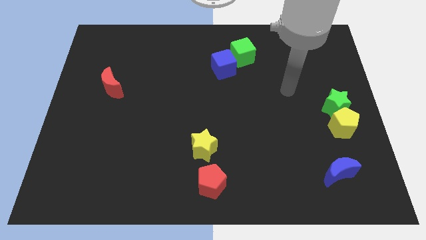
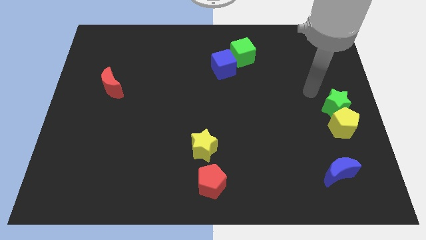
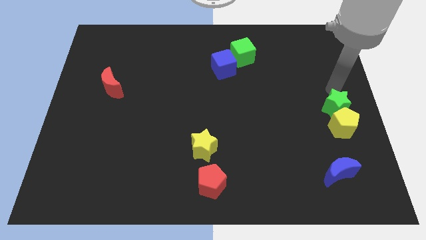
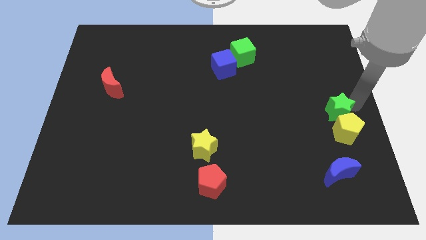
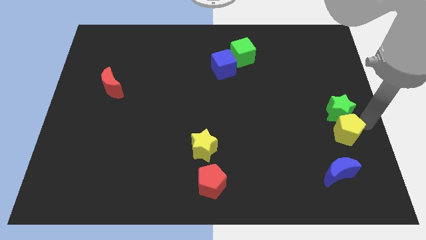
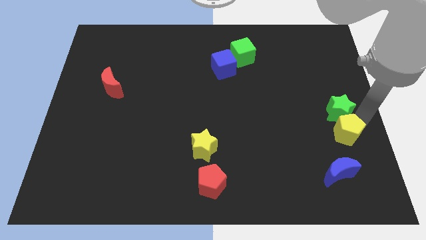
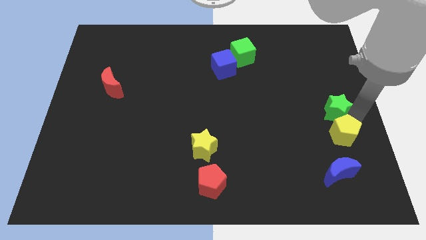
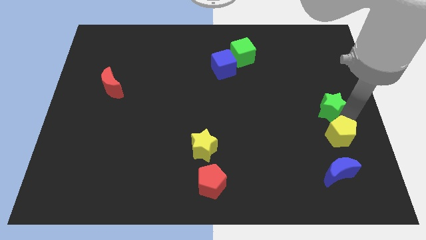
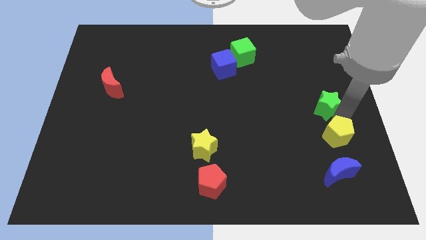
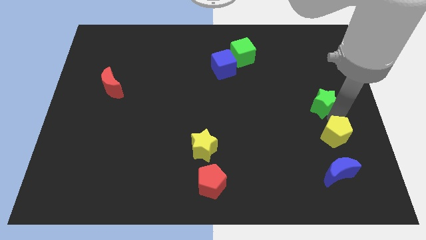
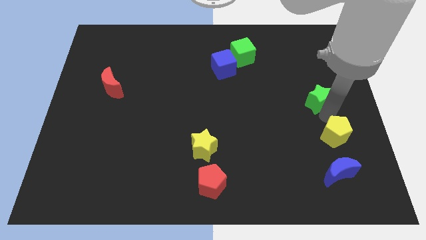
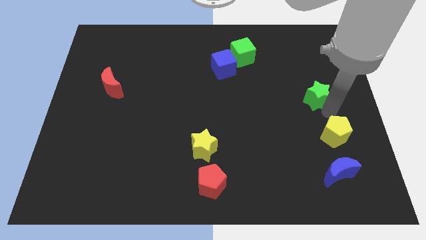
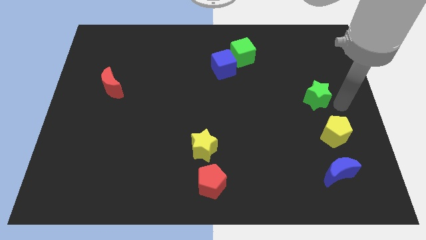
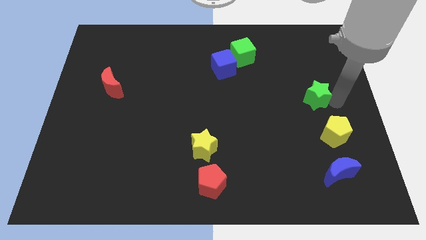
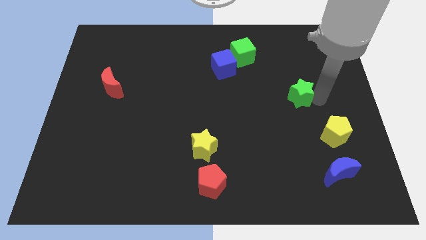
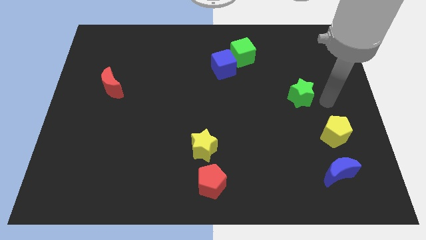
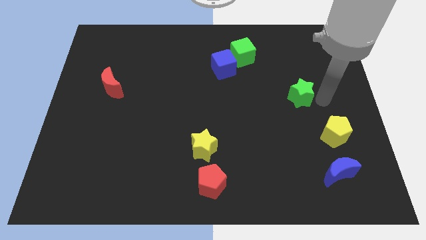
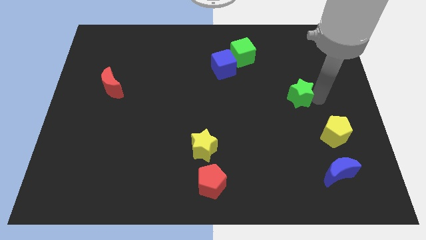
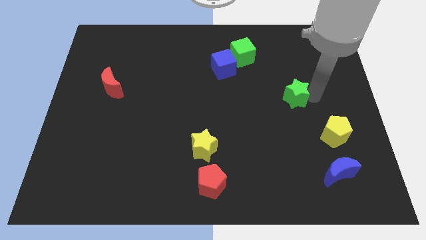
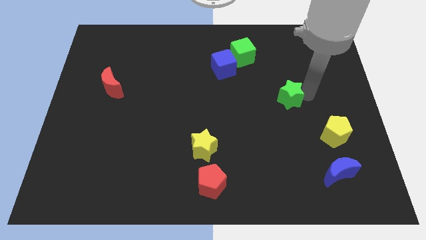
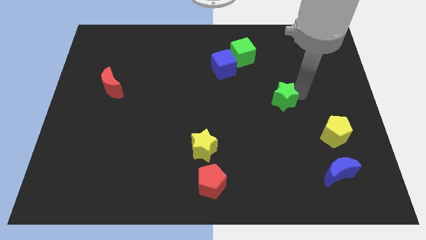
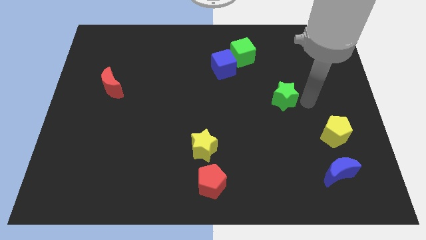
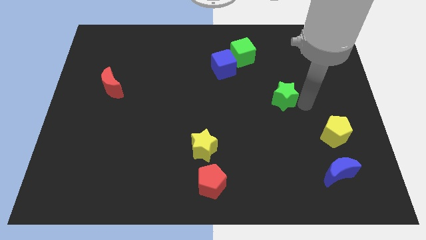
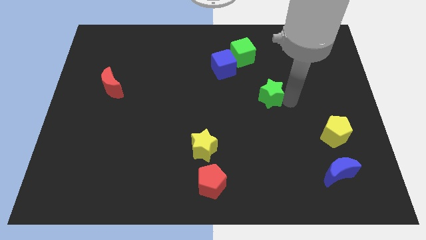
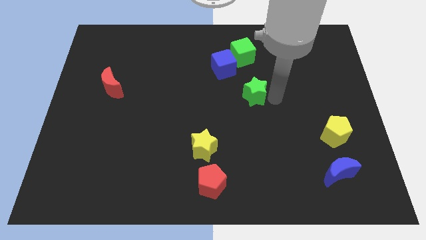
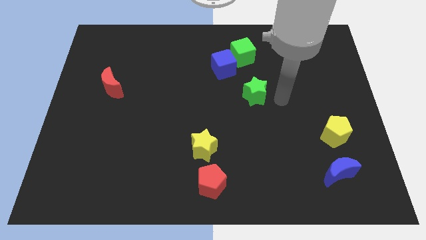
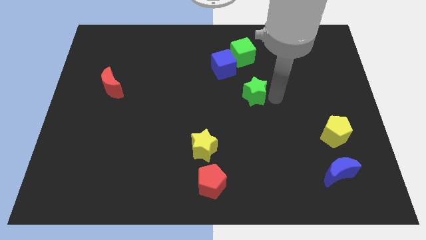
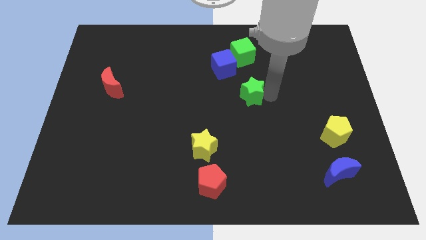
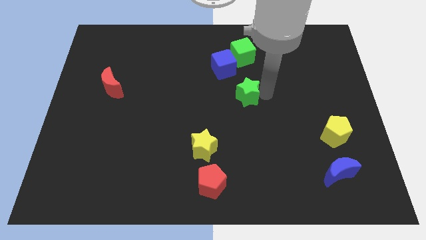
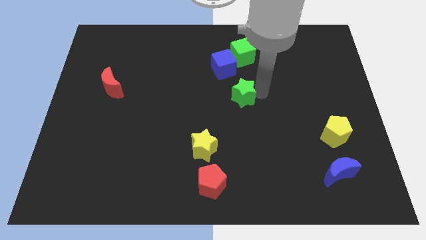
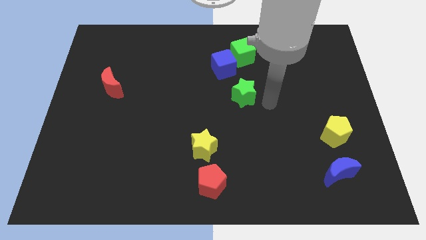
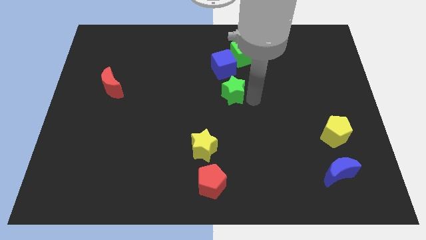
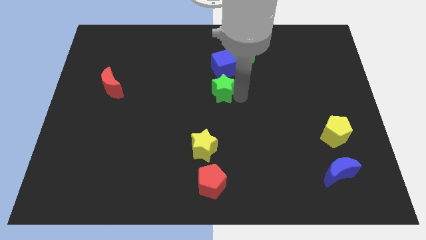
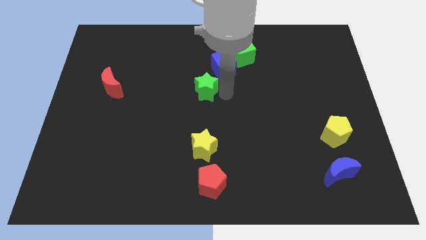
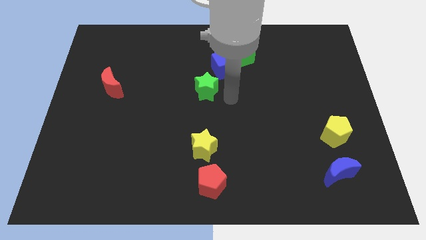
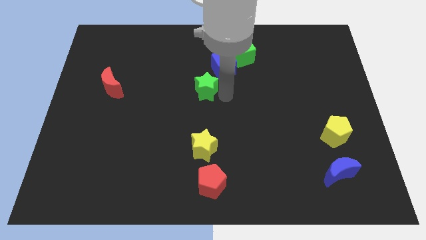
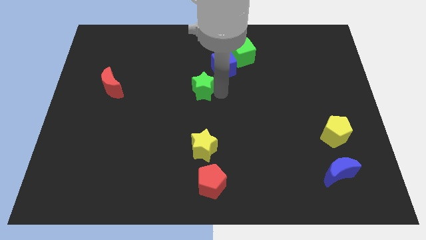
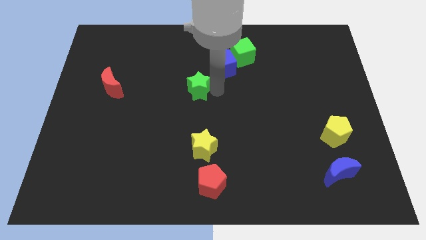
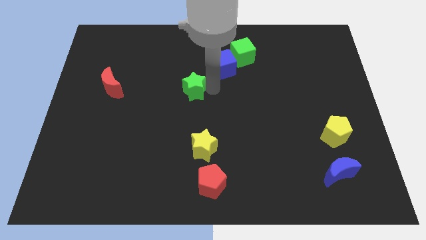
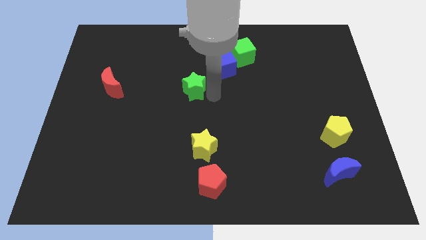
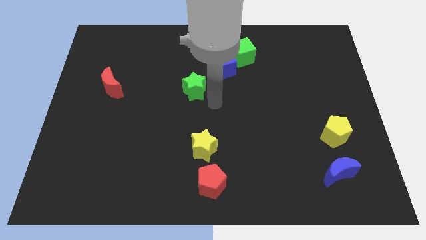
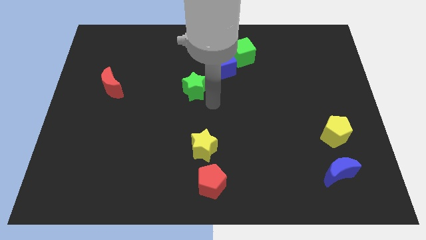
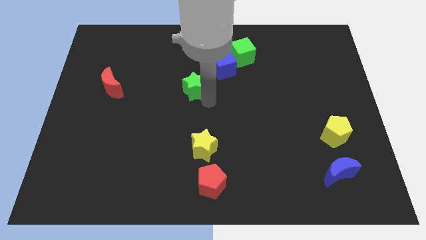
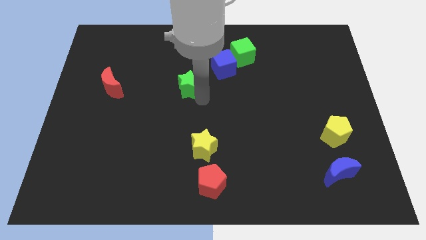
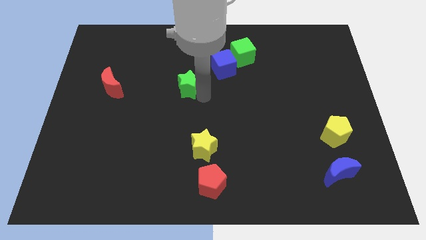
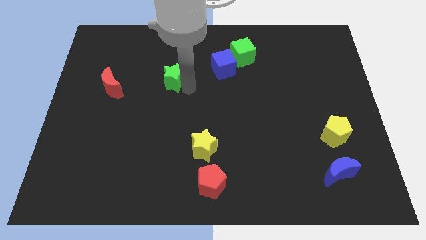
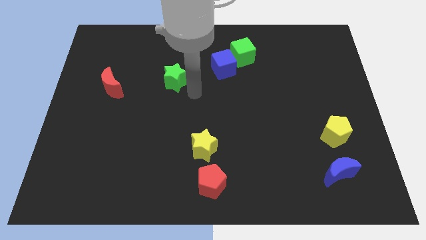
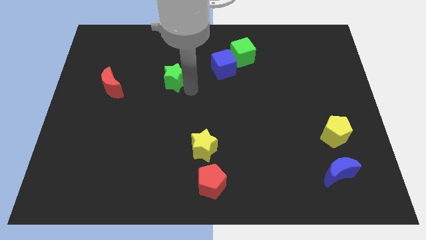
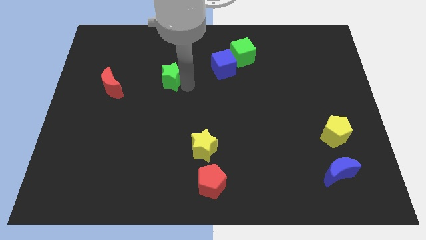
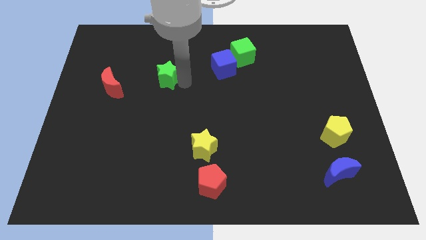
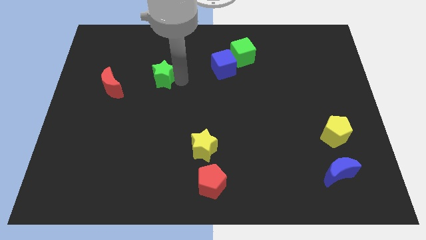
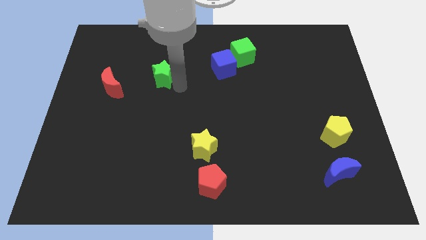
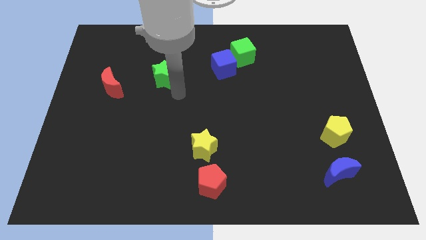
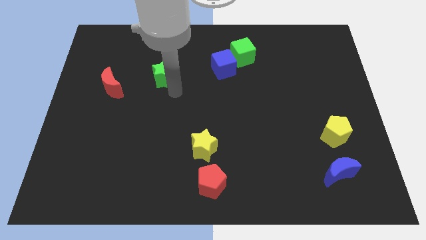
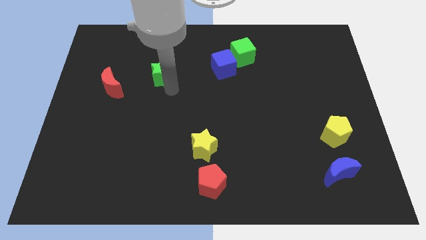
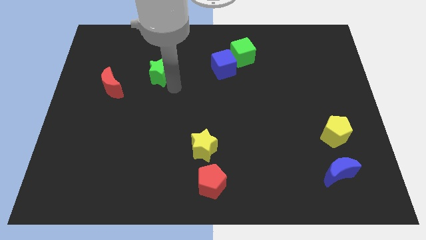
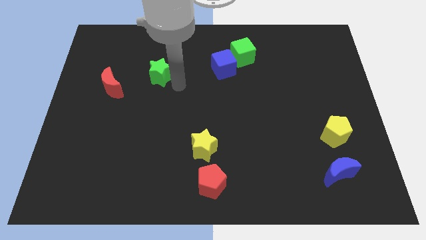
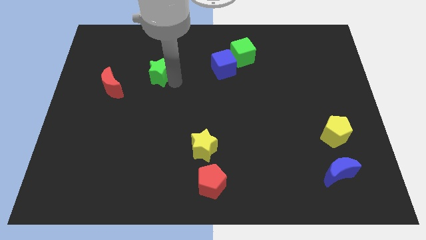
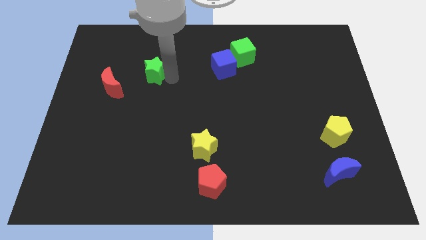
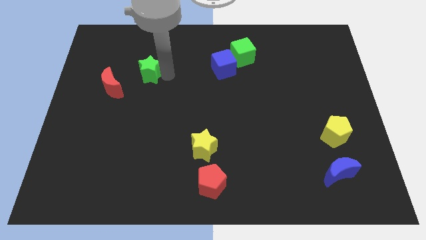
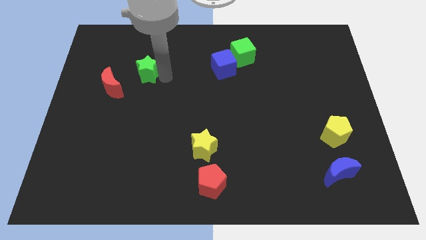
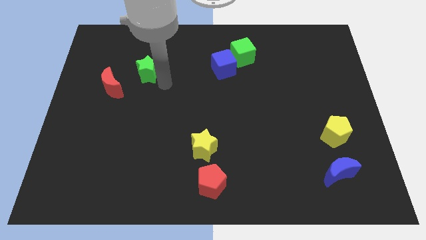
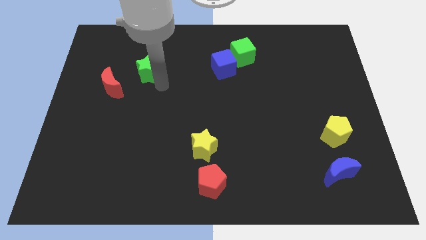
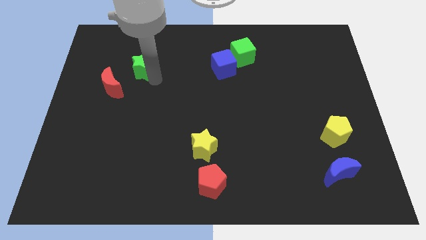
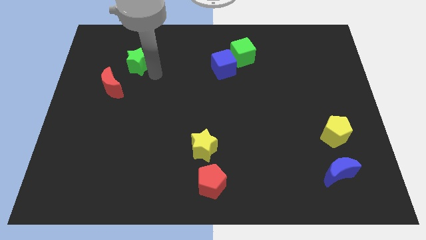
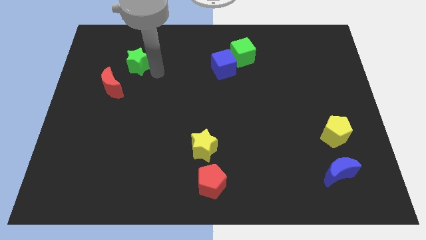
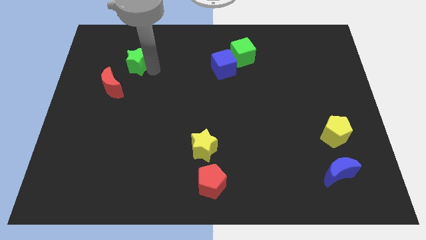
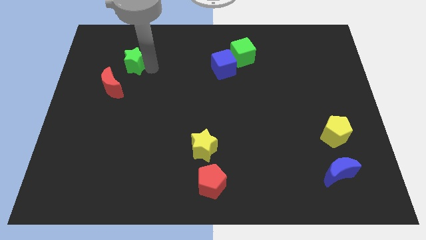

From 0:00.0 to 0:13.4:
slide the green star to the top side of the red moon

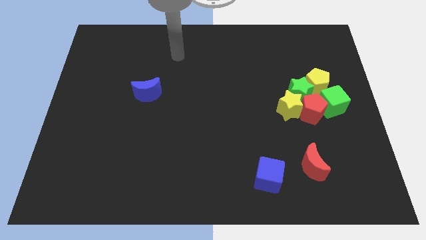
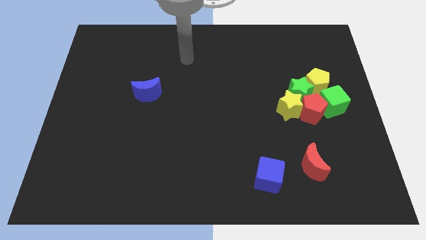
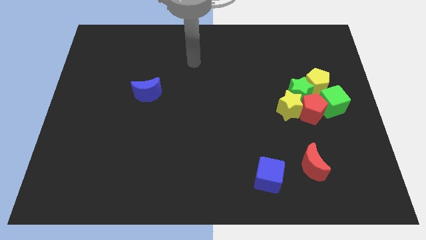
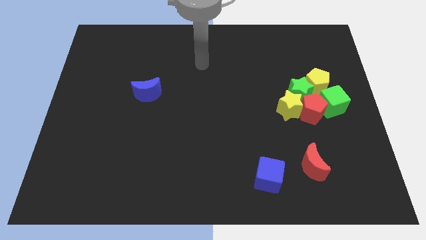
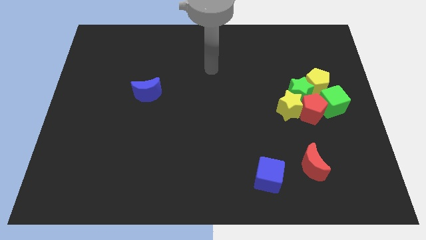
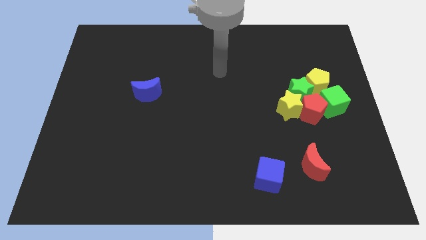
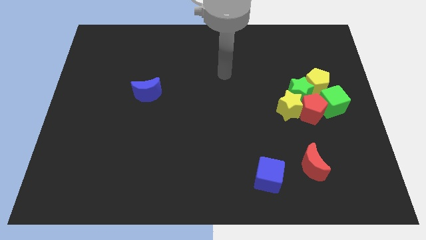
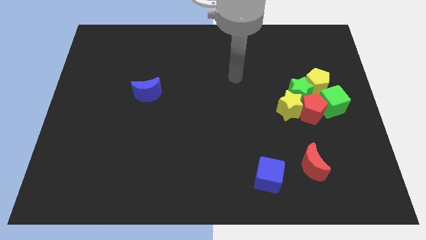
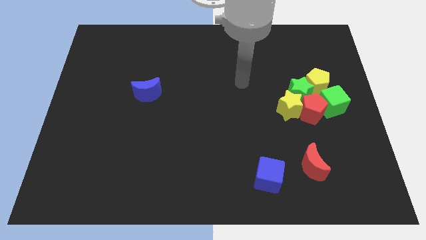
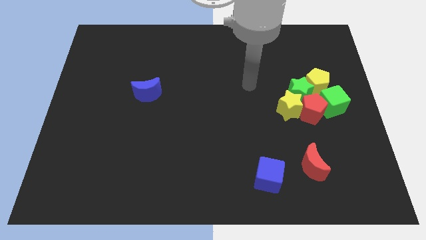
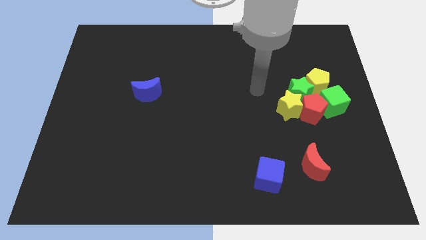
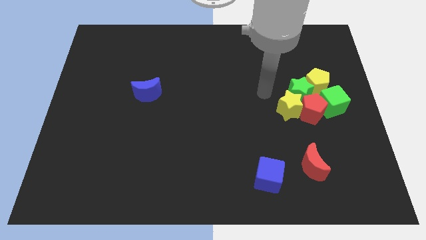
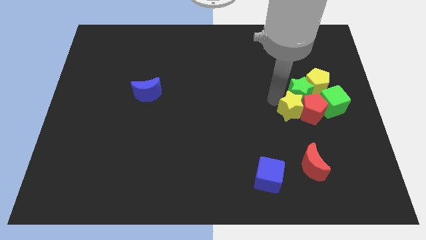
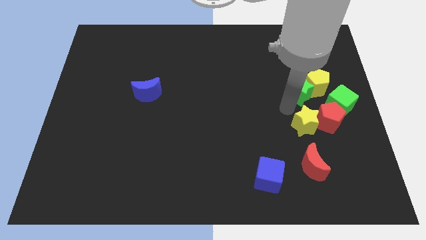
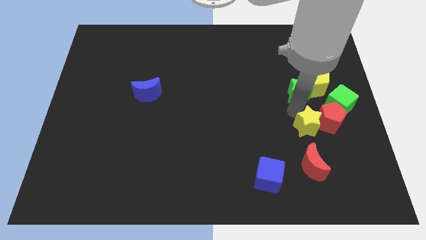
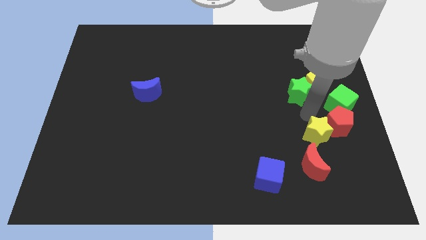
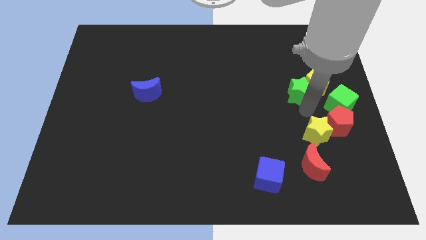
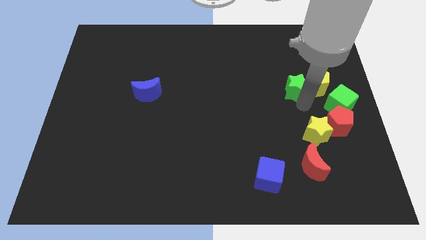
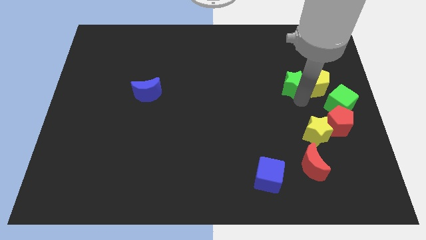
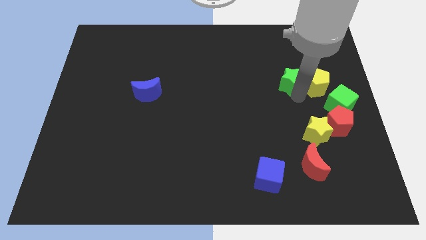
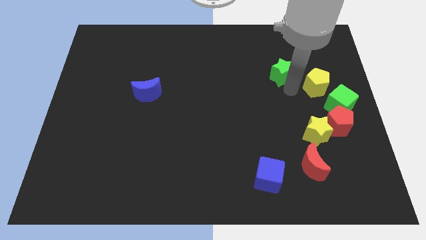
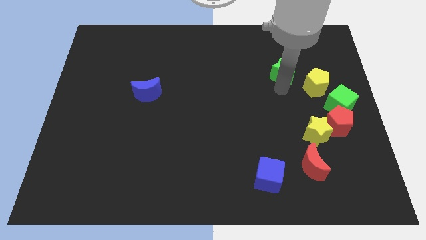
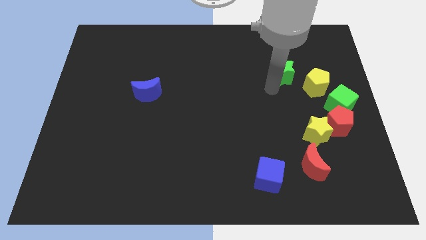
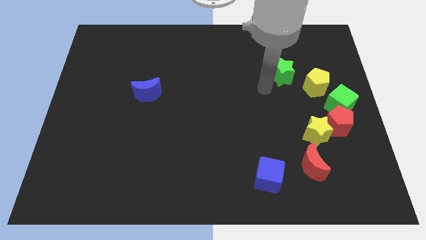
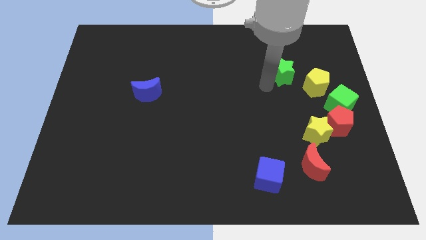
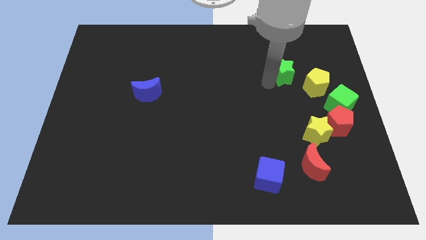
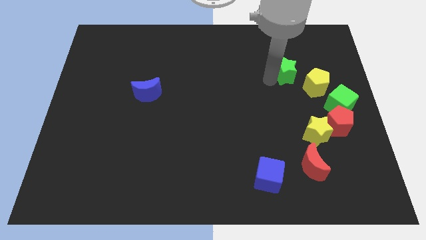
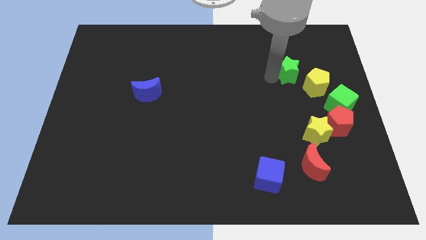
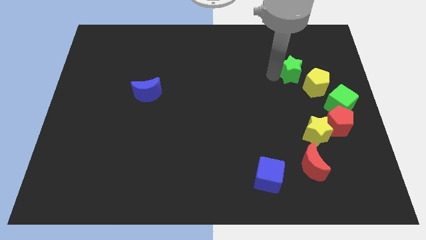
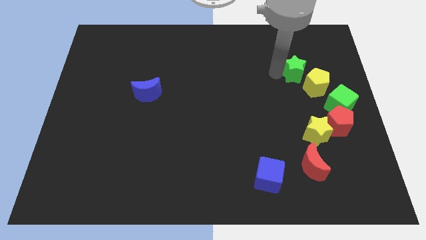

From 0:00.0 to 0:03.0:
put the green star to the top of the yellow pentagon
